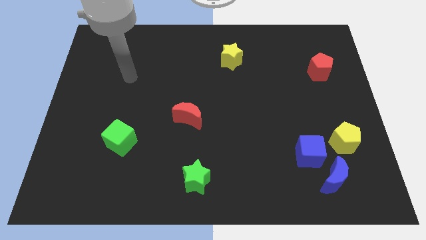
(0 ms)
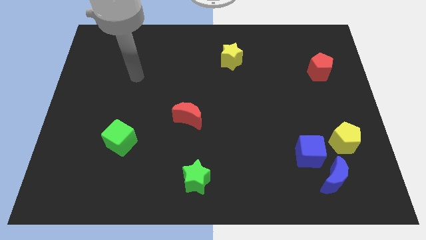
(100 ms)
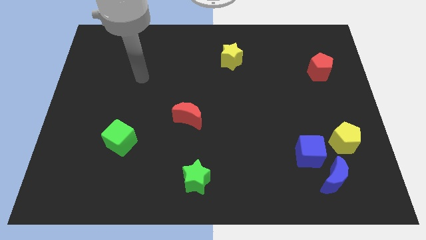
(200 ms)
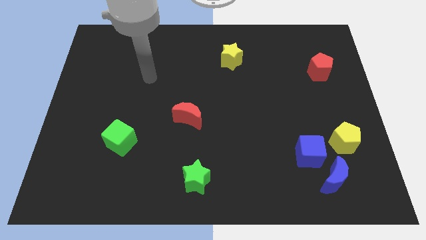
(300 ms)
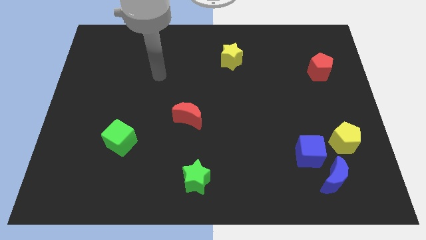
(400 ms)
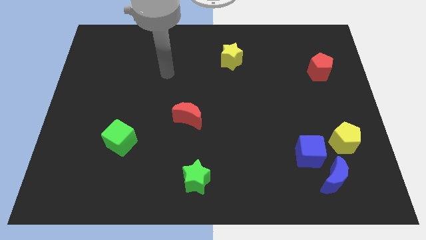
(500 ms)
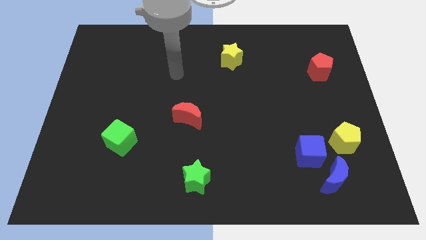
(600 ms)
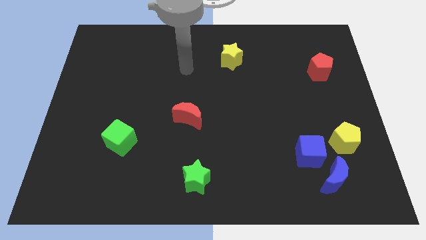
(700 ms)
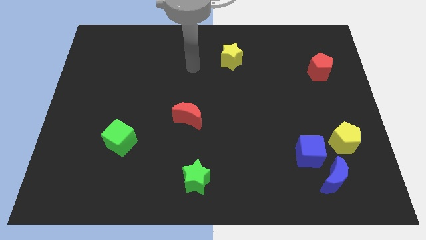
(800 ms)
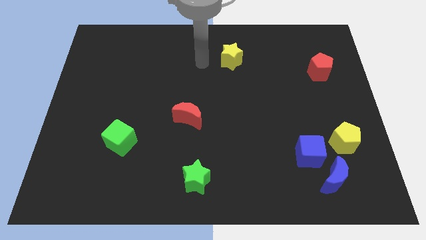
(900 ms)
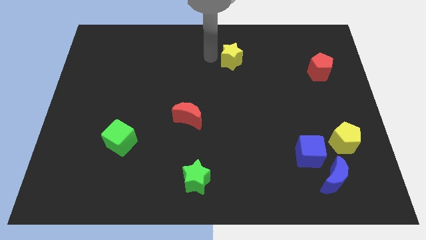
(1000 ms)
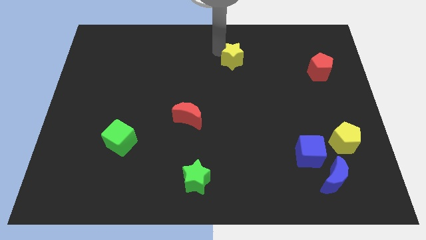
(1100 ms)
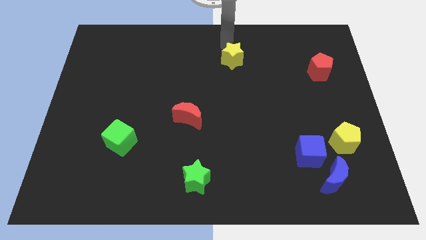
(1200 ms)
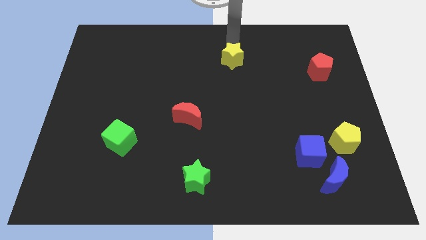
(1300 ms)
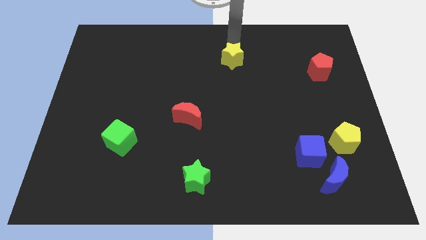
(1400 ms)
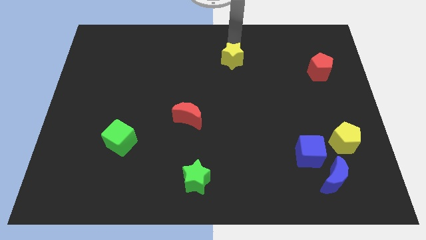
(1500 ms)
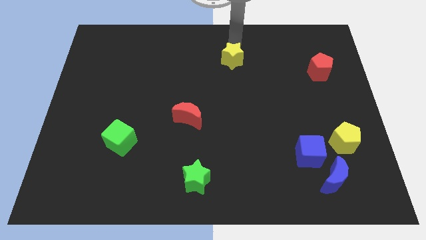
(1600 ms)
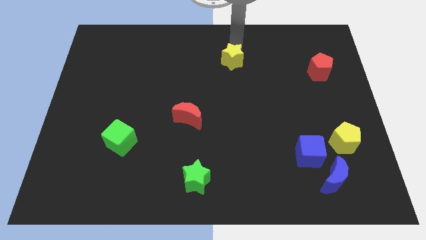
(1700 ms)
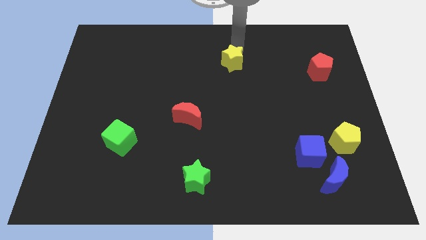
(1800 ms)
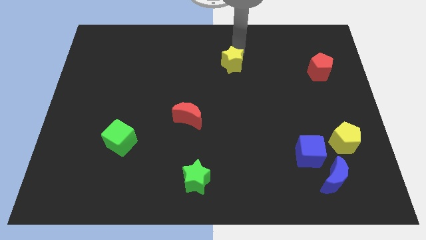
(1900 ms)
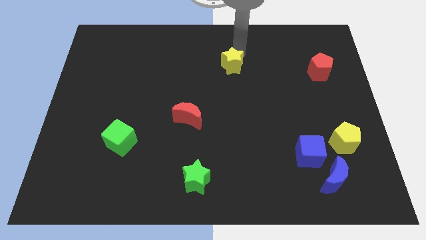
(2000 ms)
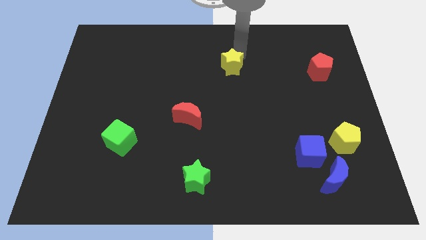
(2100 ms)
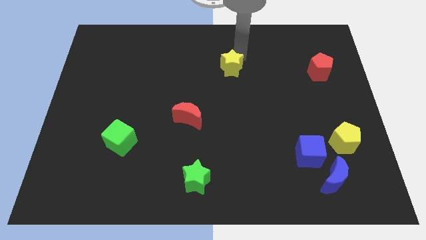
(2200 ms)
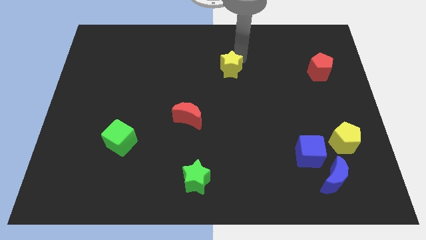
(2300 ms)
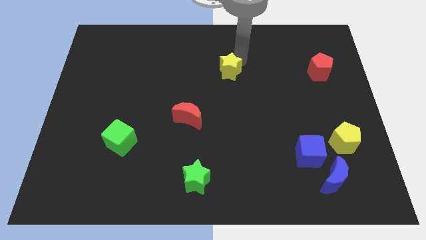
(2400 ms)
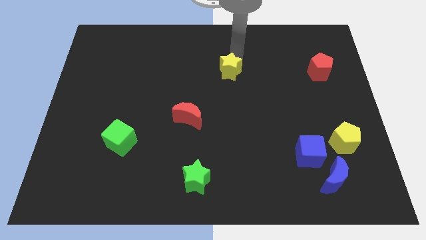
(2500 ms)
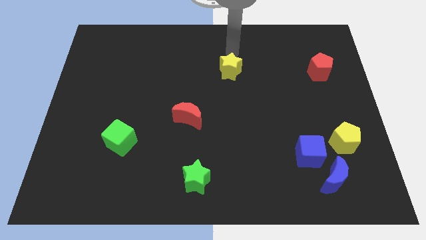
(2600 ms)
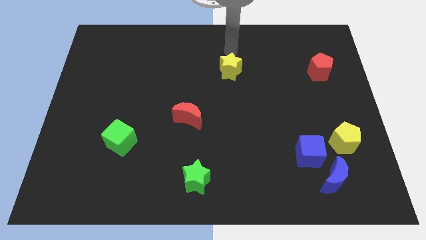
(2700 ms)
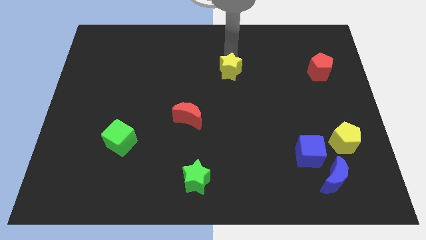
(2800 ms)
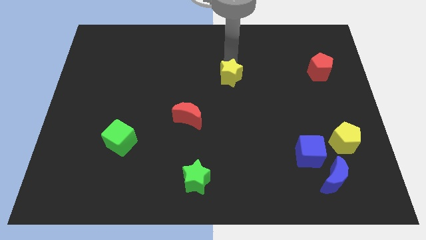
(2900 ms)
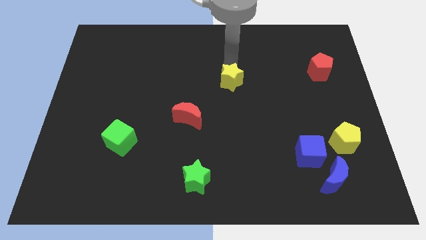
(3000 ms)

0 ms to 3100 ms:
move the yellow star down a bit

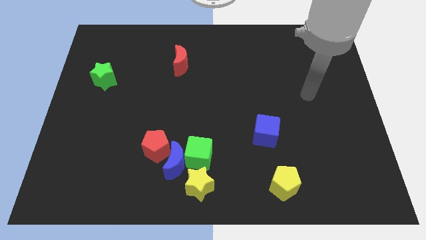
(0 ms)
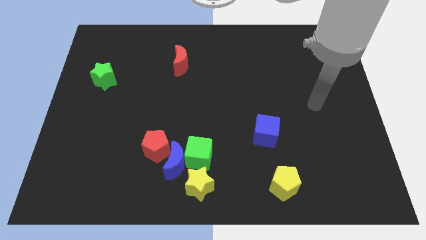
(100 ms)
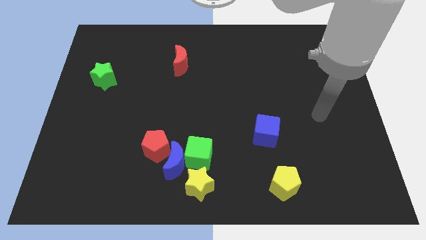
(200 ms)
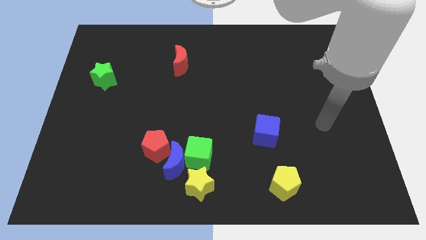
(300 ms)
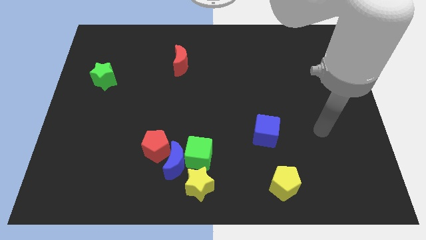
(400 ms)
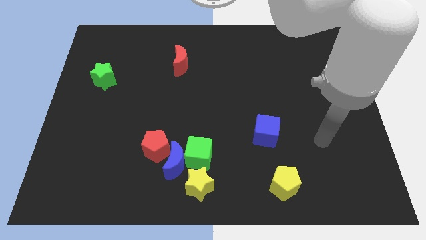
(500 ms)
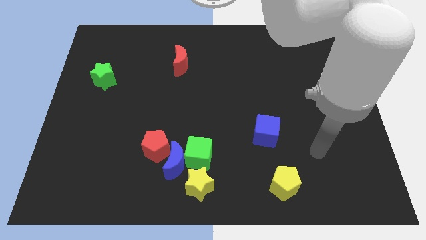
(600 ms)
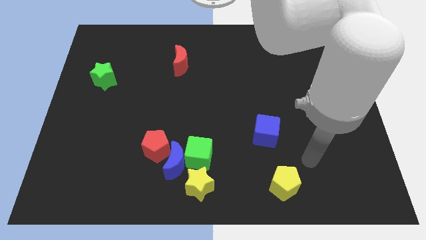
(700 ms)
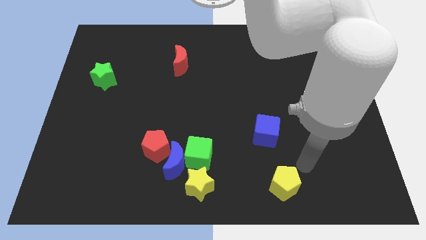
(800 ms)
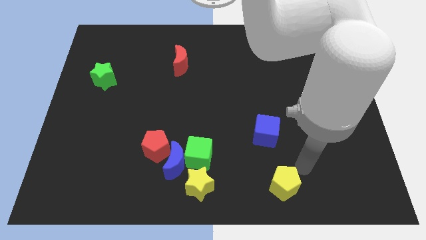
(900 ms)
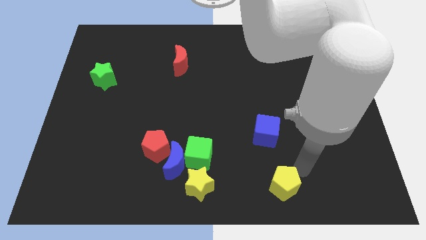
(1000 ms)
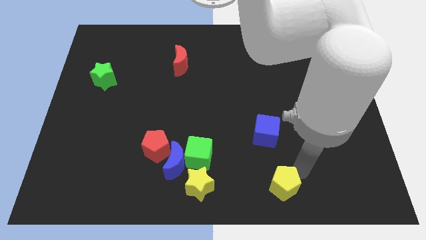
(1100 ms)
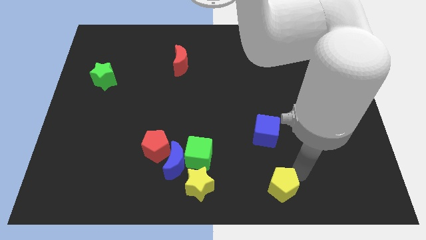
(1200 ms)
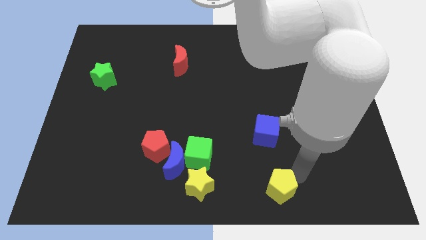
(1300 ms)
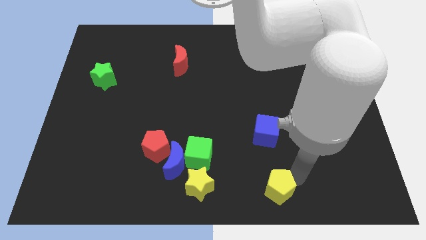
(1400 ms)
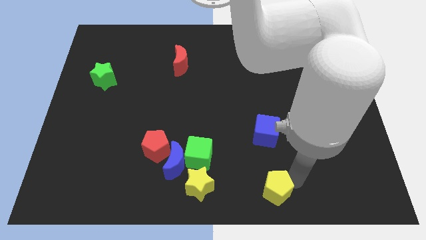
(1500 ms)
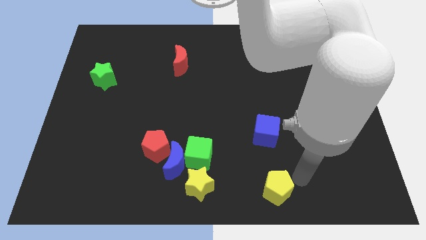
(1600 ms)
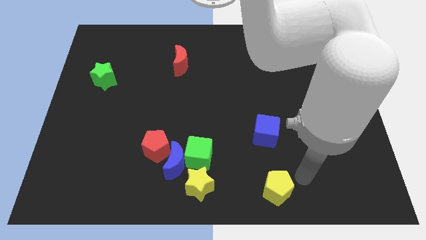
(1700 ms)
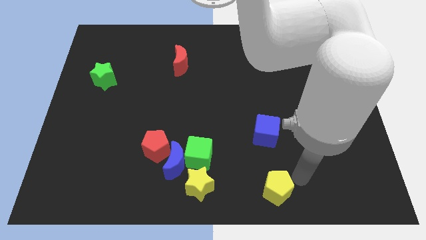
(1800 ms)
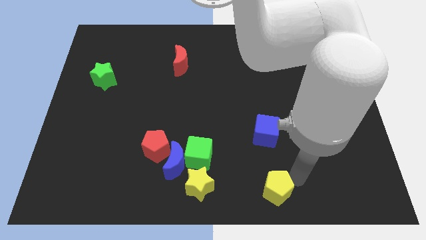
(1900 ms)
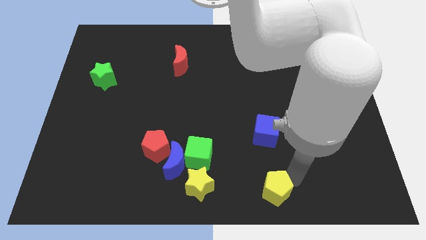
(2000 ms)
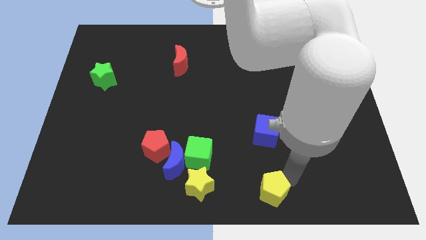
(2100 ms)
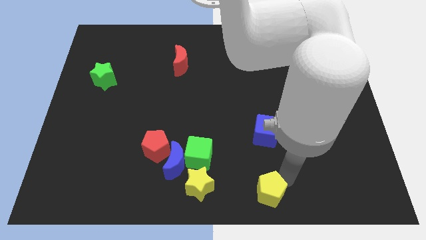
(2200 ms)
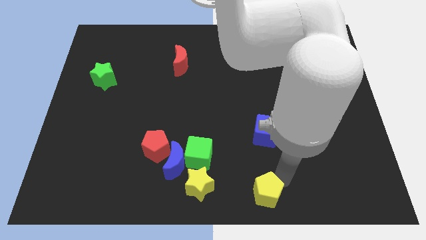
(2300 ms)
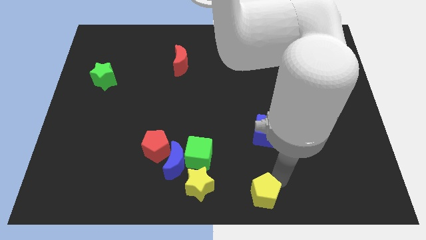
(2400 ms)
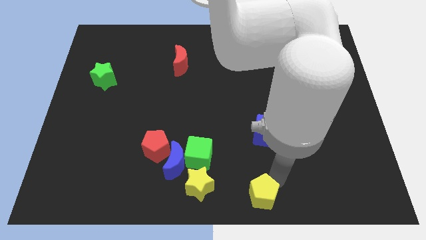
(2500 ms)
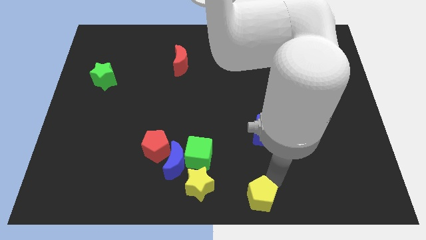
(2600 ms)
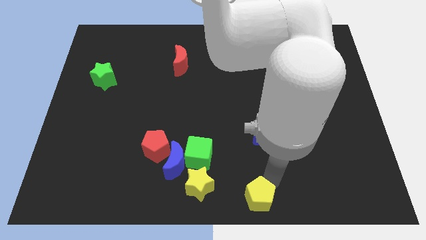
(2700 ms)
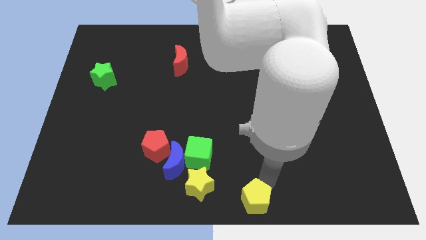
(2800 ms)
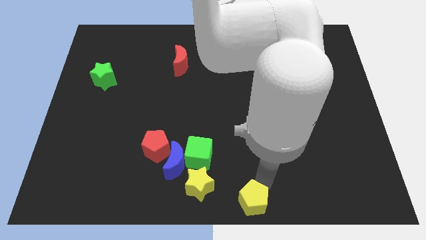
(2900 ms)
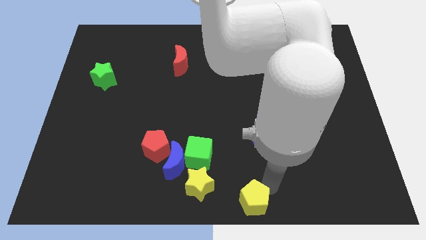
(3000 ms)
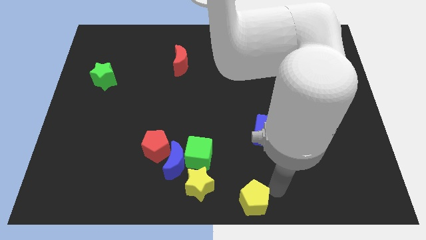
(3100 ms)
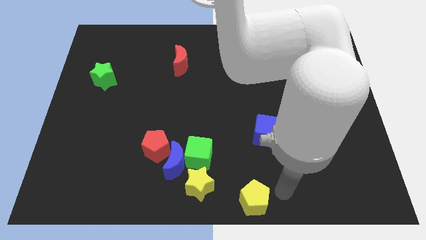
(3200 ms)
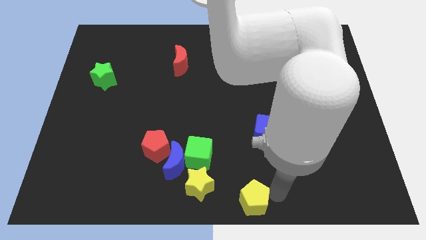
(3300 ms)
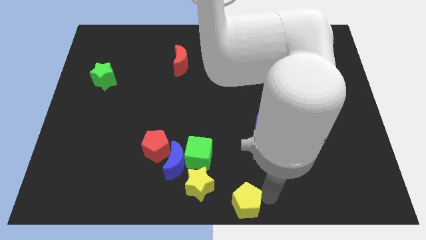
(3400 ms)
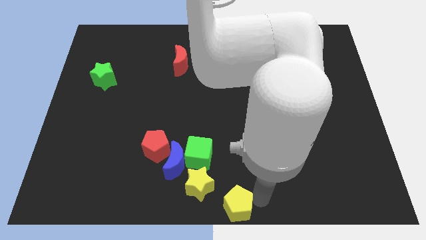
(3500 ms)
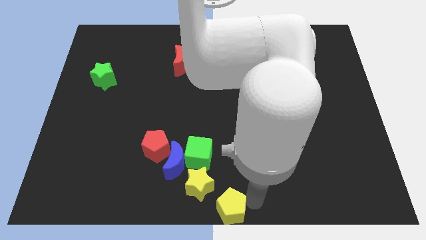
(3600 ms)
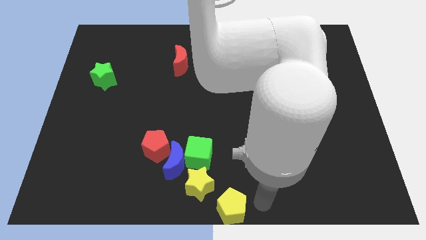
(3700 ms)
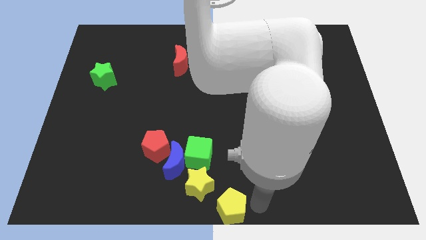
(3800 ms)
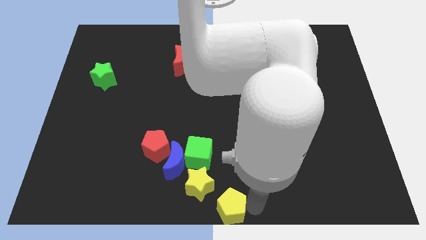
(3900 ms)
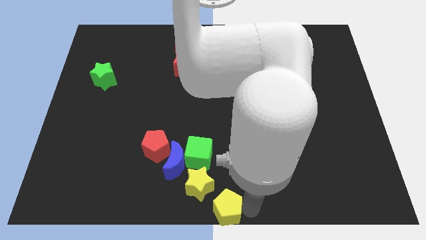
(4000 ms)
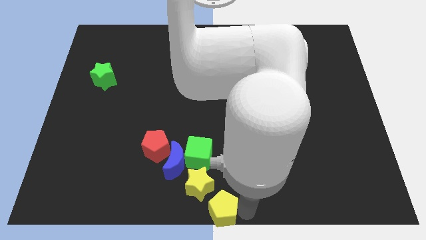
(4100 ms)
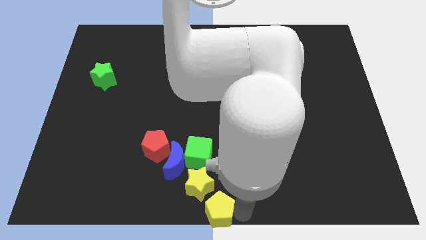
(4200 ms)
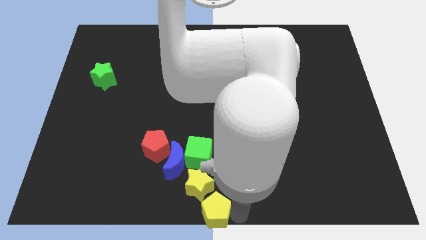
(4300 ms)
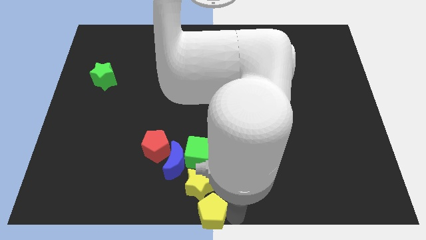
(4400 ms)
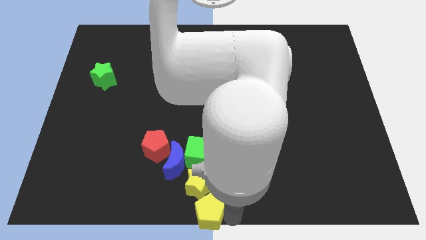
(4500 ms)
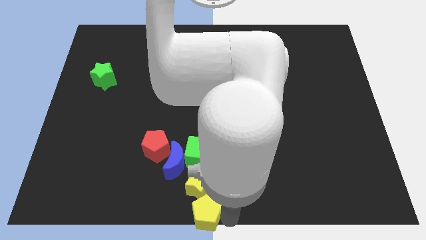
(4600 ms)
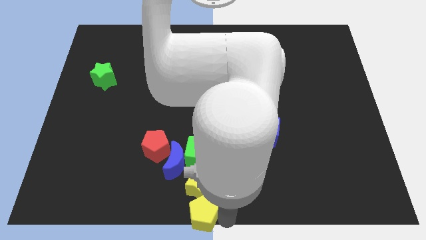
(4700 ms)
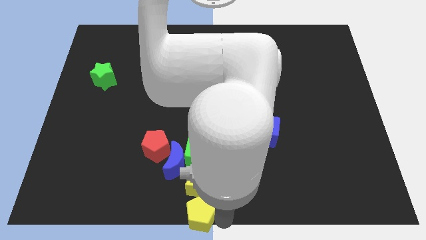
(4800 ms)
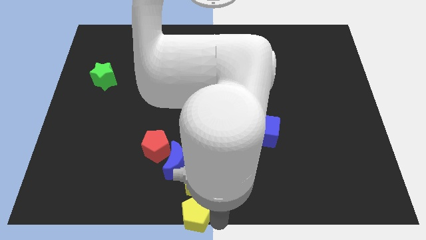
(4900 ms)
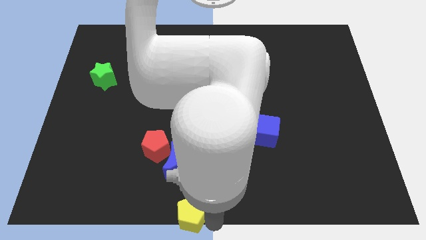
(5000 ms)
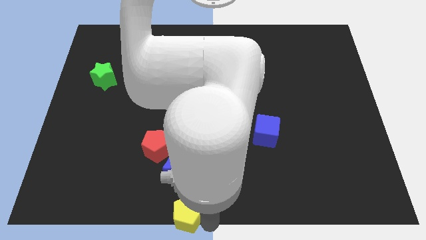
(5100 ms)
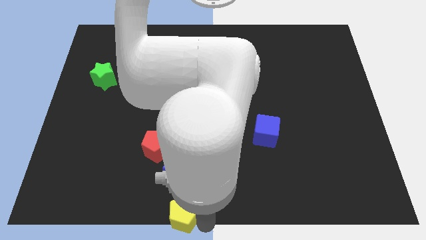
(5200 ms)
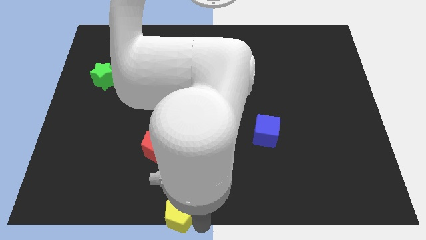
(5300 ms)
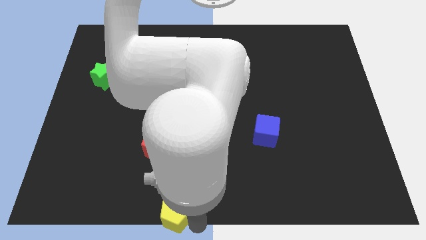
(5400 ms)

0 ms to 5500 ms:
push the yellow pentagon to the left
